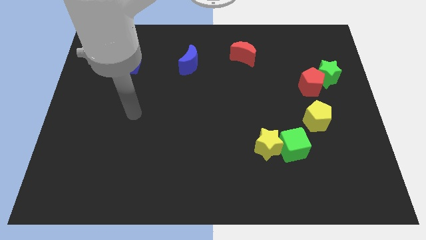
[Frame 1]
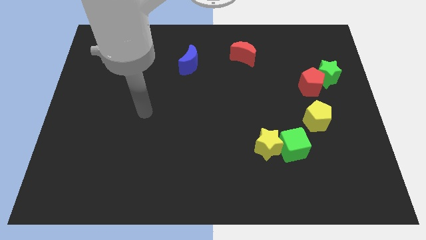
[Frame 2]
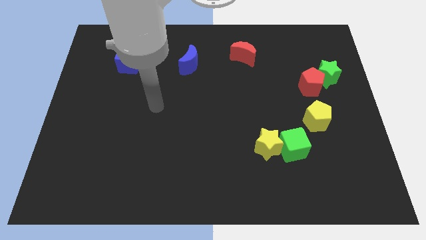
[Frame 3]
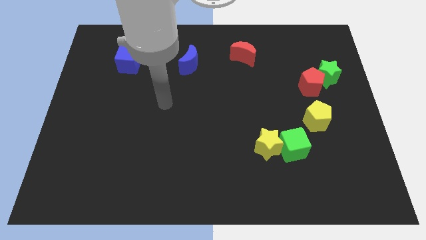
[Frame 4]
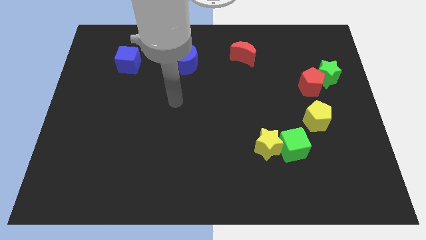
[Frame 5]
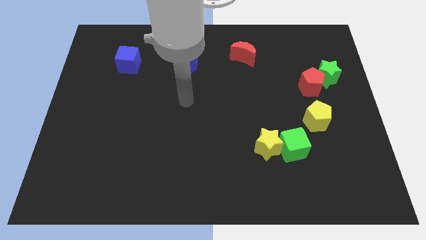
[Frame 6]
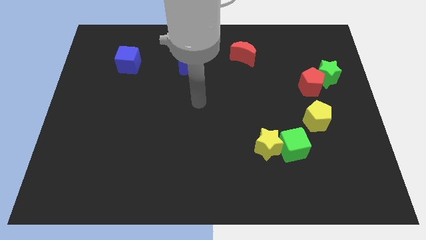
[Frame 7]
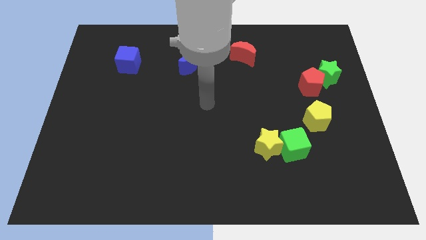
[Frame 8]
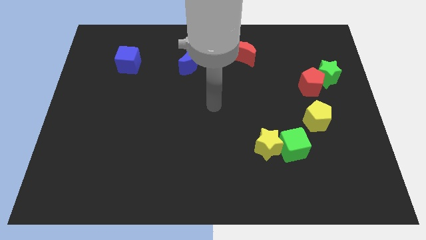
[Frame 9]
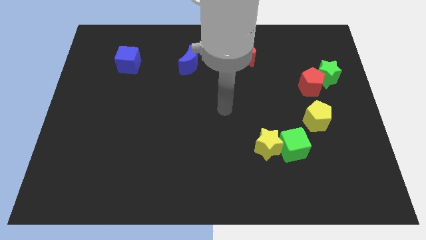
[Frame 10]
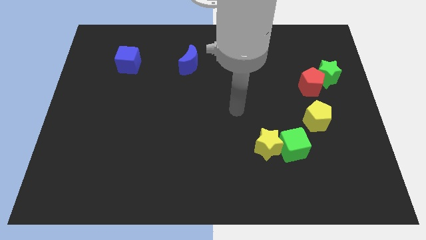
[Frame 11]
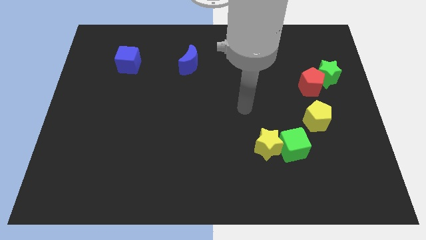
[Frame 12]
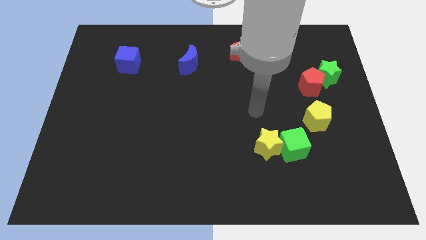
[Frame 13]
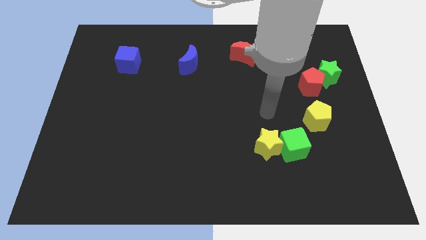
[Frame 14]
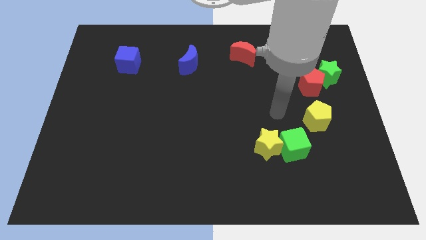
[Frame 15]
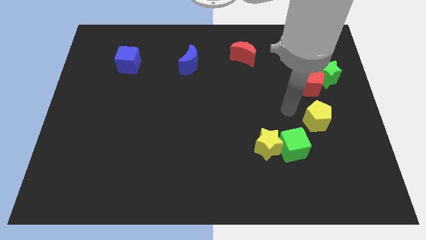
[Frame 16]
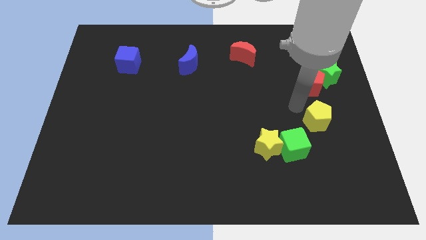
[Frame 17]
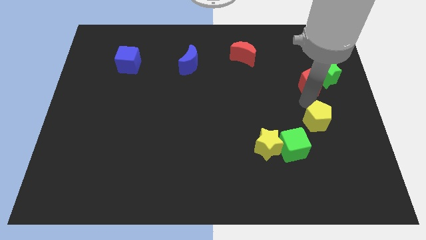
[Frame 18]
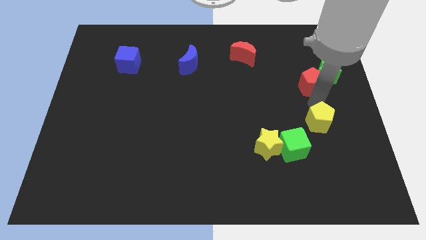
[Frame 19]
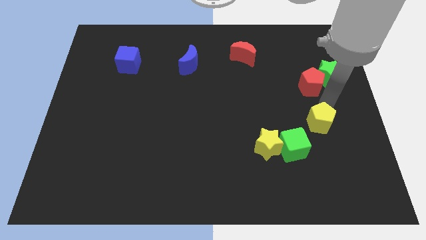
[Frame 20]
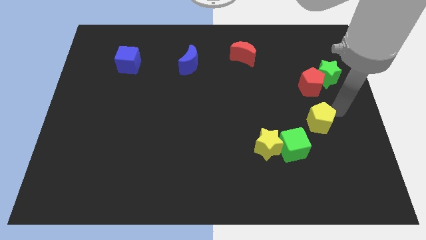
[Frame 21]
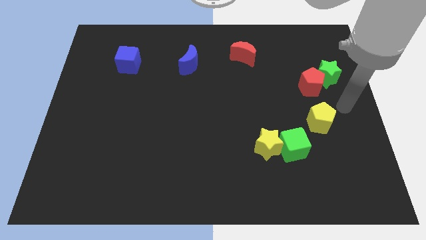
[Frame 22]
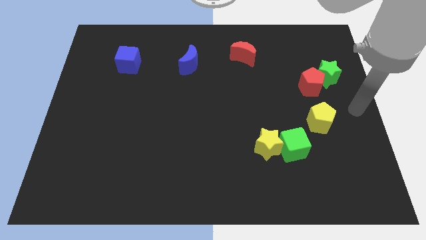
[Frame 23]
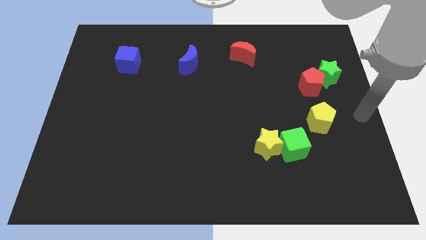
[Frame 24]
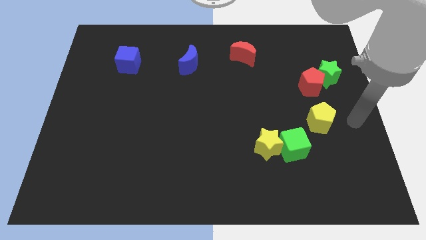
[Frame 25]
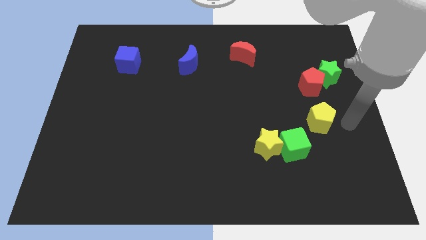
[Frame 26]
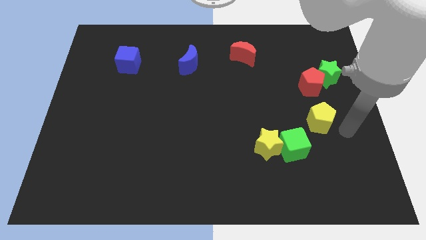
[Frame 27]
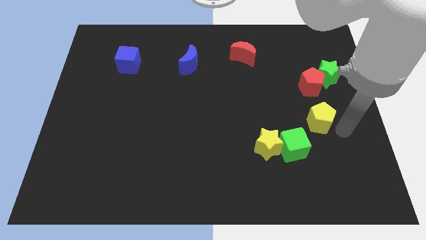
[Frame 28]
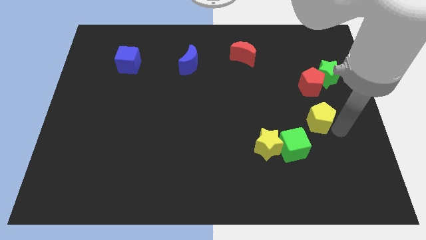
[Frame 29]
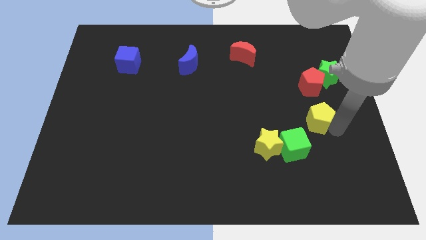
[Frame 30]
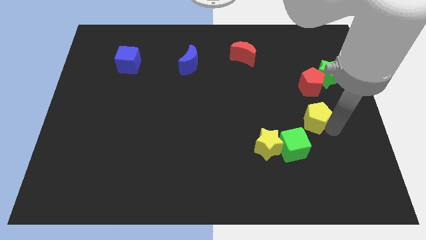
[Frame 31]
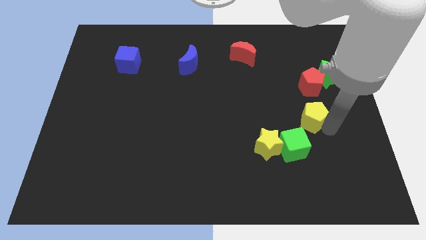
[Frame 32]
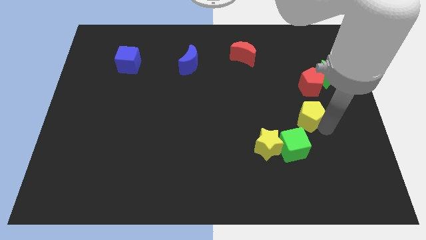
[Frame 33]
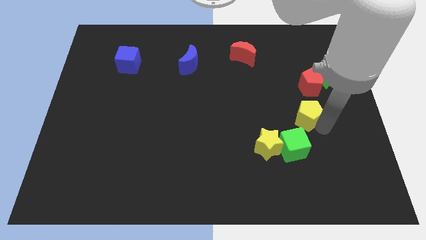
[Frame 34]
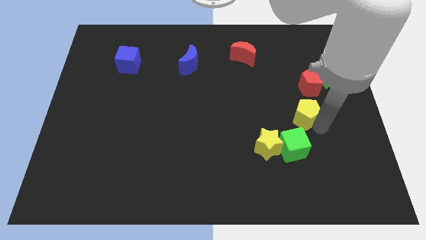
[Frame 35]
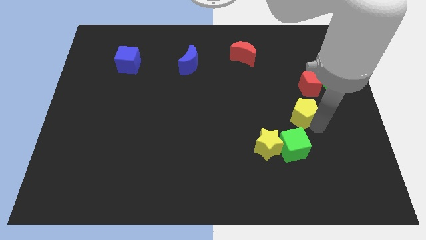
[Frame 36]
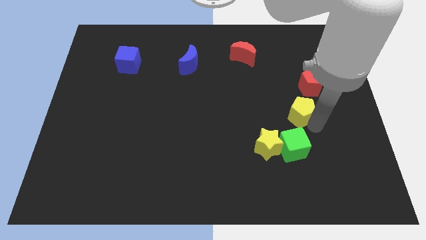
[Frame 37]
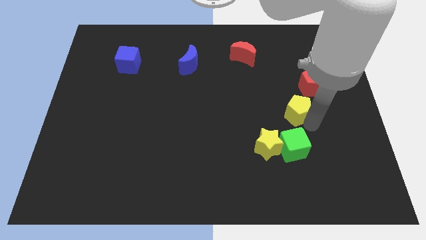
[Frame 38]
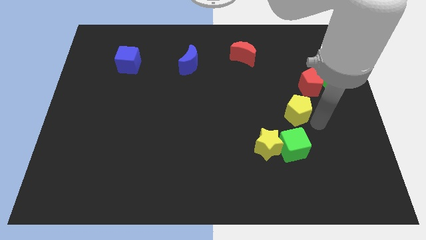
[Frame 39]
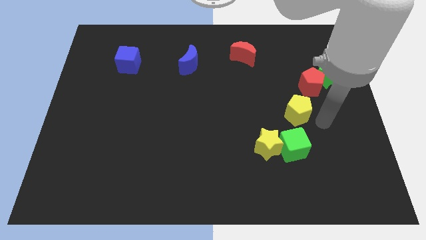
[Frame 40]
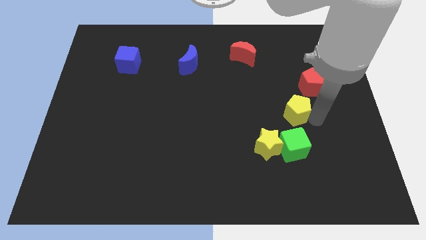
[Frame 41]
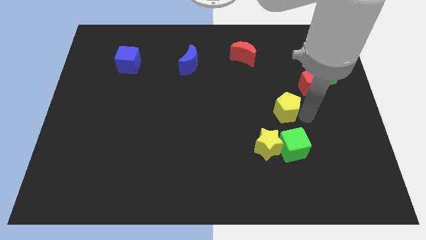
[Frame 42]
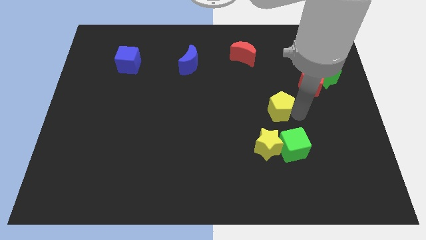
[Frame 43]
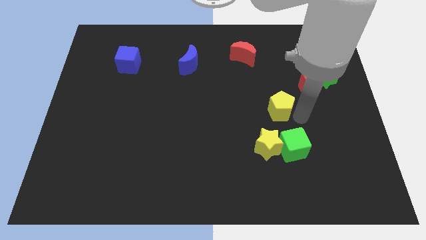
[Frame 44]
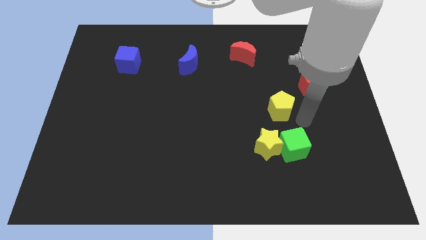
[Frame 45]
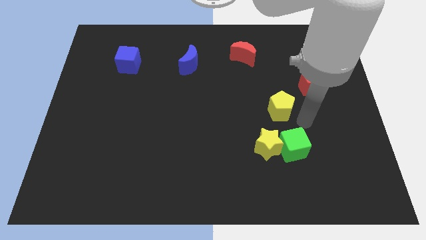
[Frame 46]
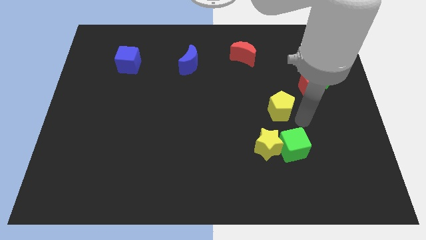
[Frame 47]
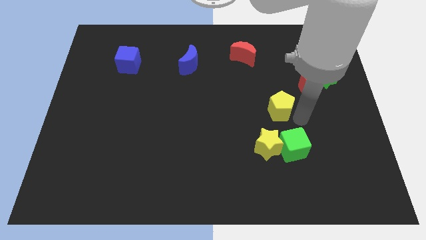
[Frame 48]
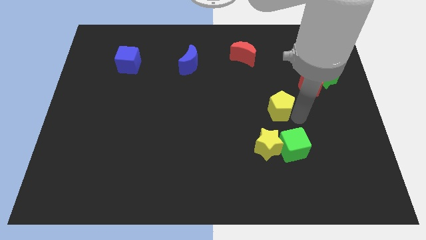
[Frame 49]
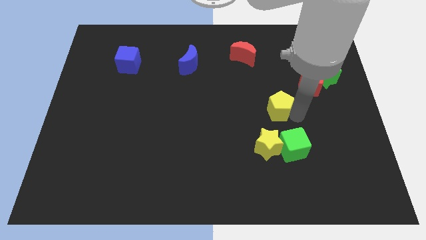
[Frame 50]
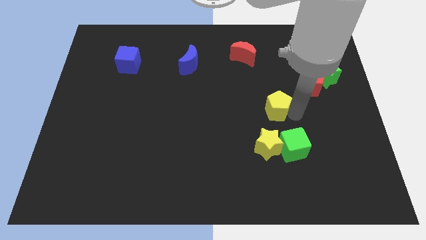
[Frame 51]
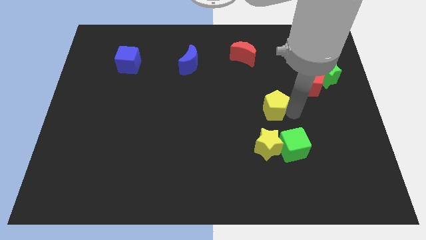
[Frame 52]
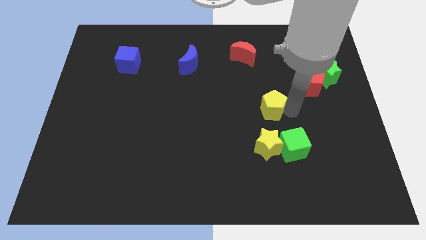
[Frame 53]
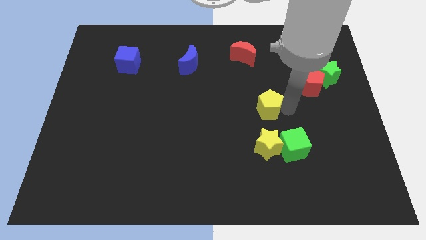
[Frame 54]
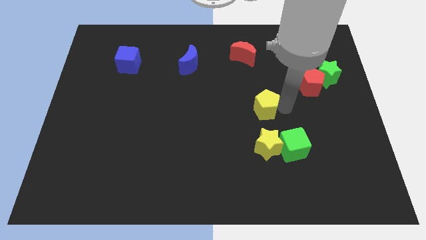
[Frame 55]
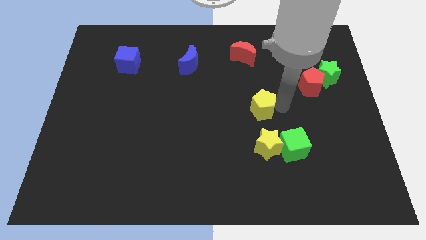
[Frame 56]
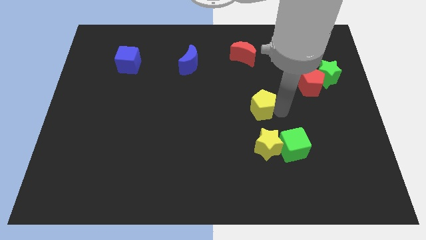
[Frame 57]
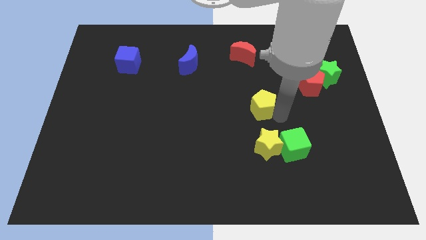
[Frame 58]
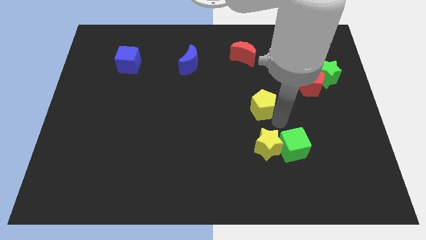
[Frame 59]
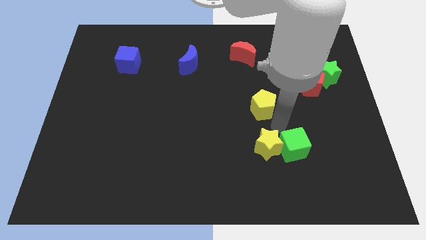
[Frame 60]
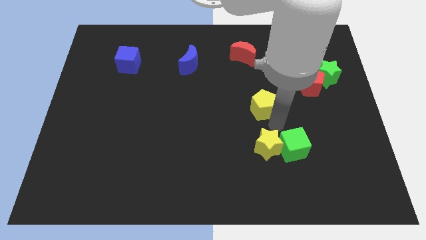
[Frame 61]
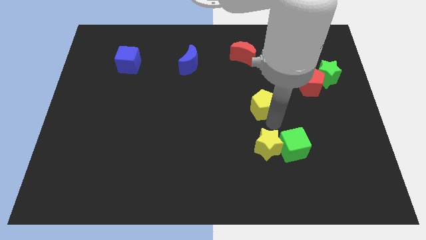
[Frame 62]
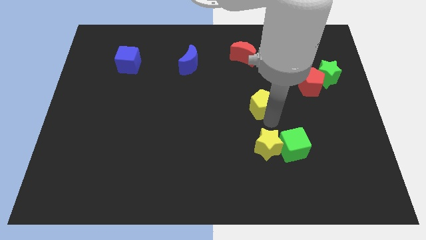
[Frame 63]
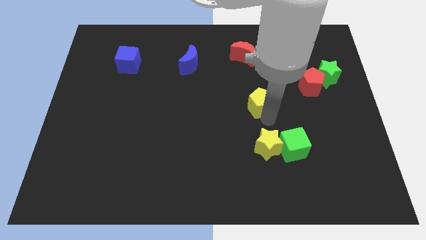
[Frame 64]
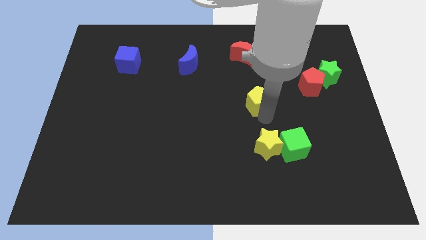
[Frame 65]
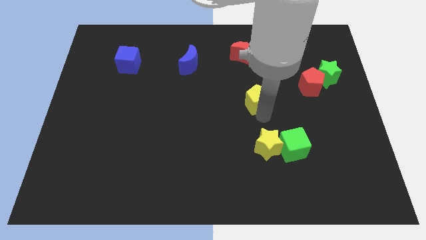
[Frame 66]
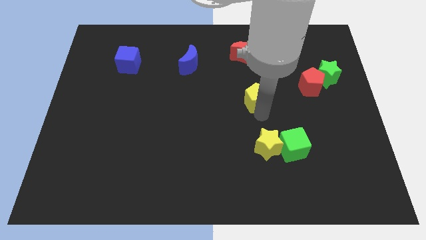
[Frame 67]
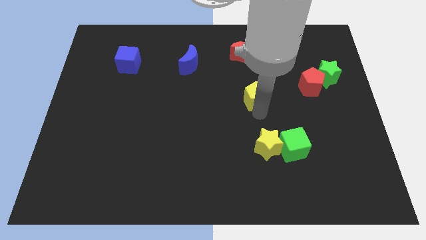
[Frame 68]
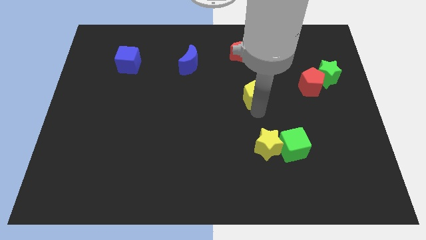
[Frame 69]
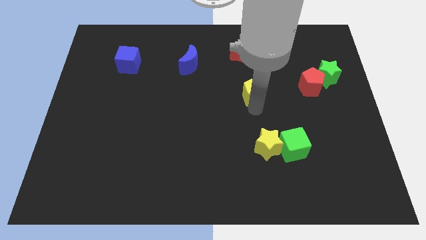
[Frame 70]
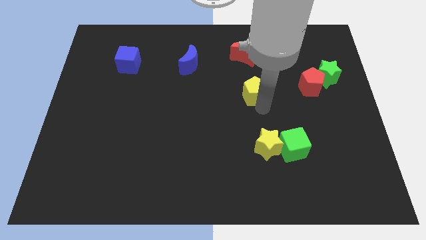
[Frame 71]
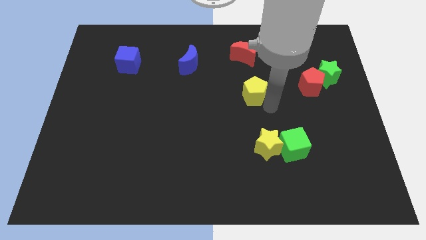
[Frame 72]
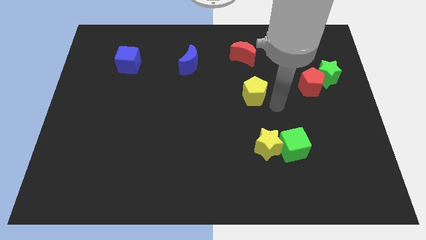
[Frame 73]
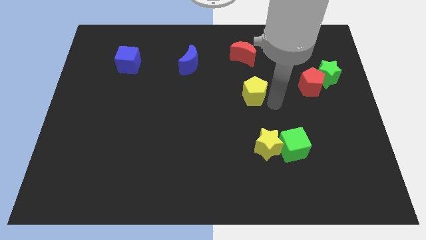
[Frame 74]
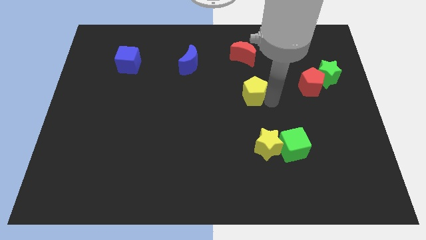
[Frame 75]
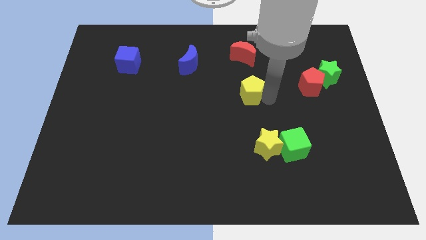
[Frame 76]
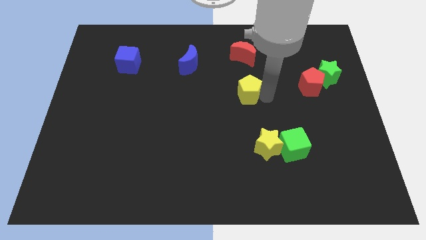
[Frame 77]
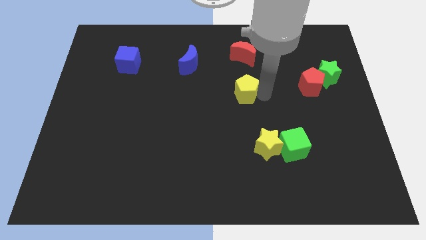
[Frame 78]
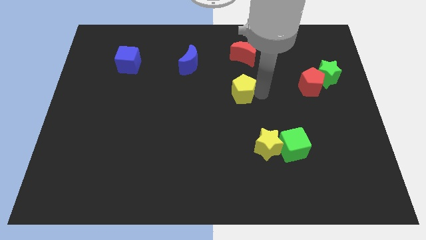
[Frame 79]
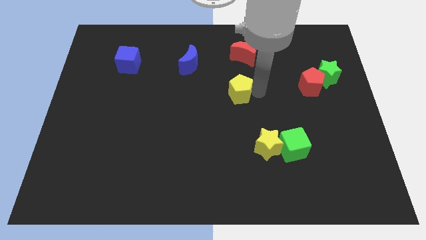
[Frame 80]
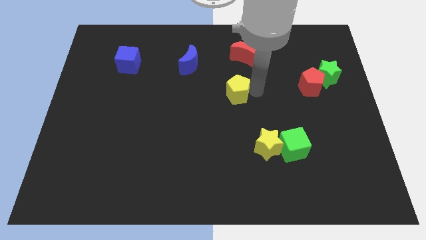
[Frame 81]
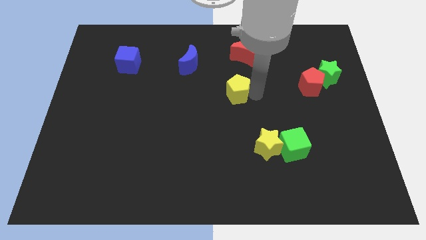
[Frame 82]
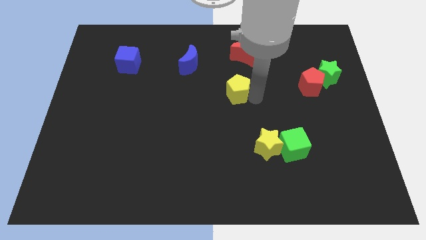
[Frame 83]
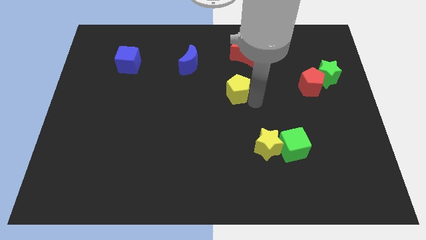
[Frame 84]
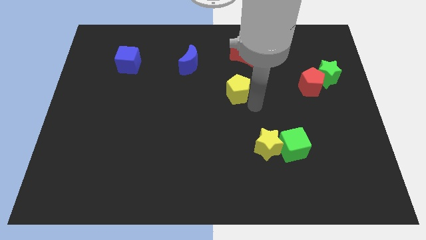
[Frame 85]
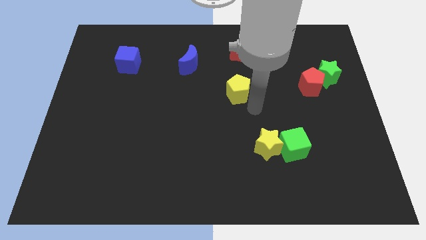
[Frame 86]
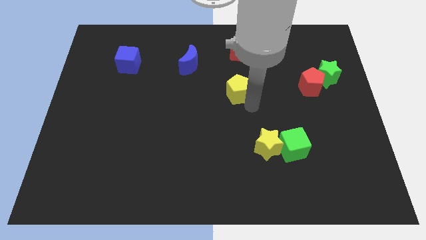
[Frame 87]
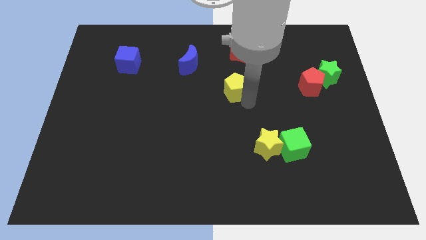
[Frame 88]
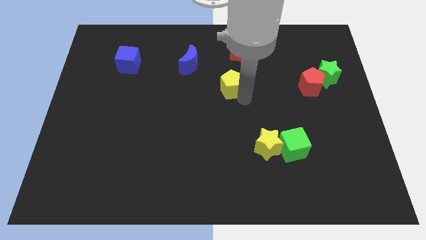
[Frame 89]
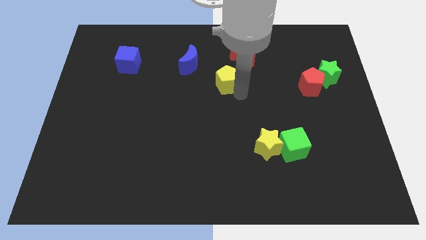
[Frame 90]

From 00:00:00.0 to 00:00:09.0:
push the yellow pentagon to the bottom right of the blue moon
